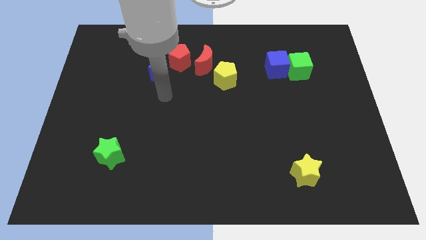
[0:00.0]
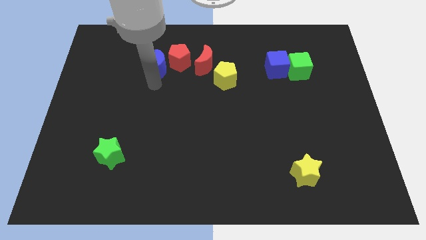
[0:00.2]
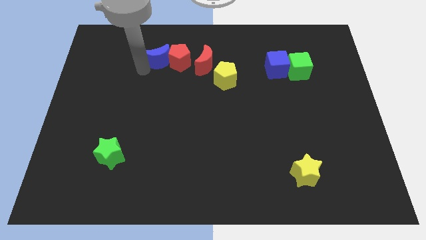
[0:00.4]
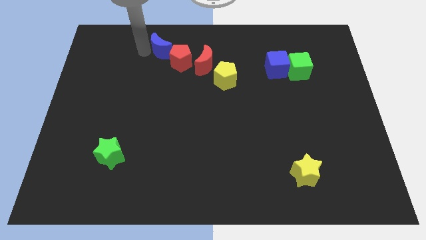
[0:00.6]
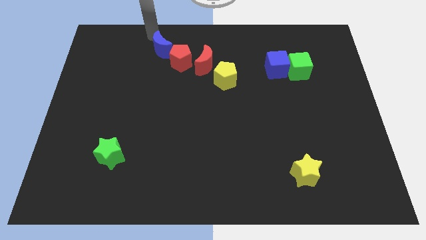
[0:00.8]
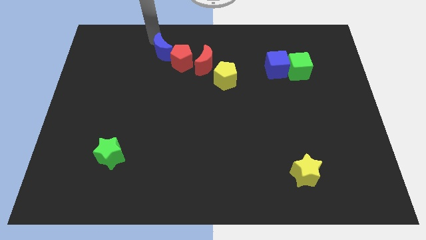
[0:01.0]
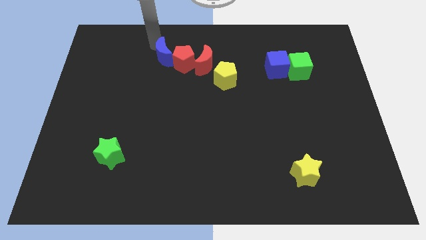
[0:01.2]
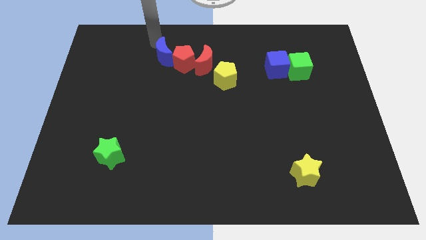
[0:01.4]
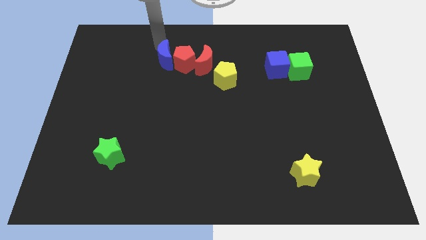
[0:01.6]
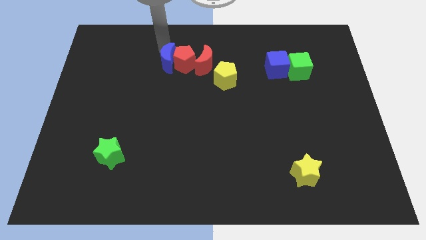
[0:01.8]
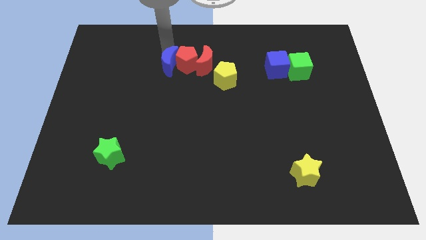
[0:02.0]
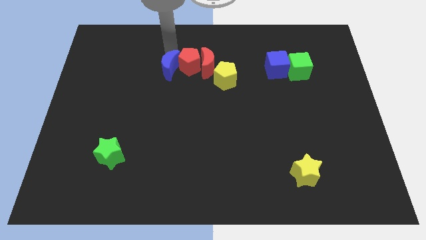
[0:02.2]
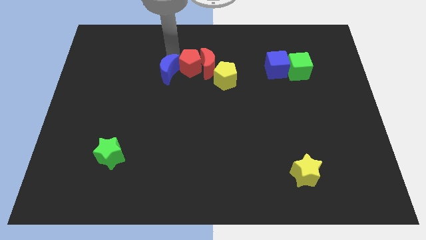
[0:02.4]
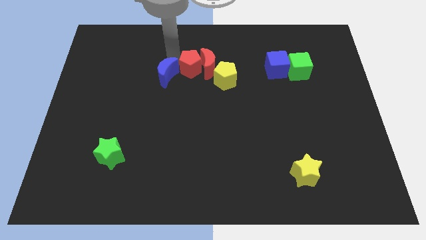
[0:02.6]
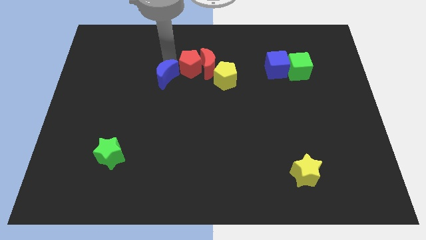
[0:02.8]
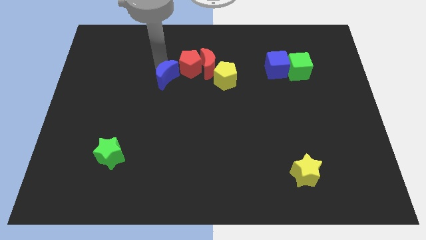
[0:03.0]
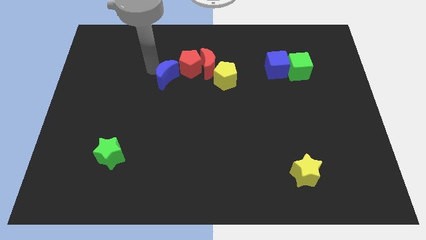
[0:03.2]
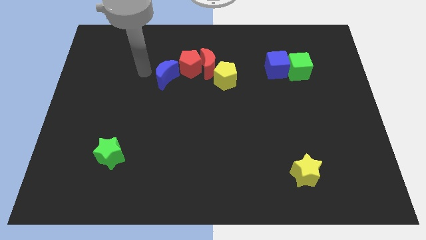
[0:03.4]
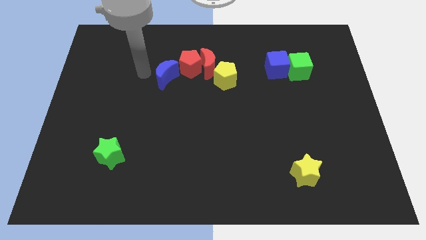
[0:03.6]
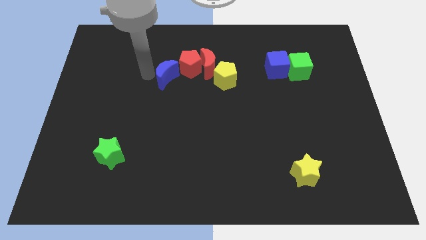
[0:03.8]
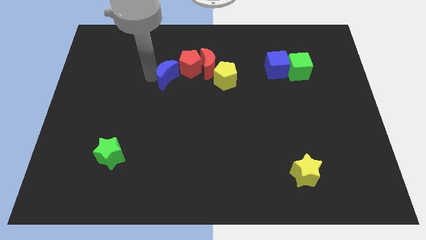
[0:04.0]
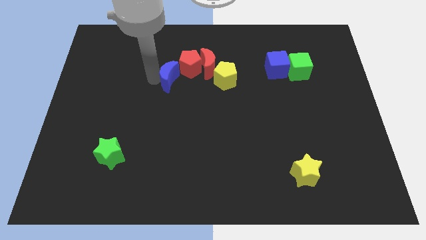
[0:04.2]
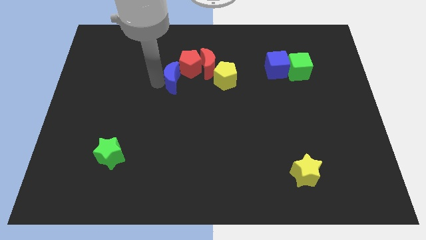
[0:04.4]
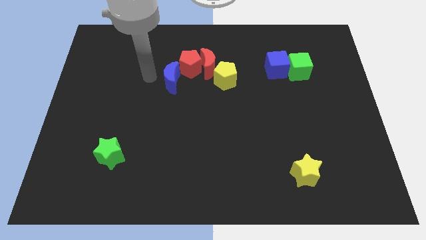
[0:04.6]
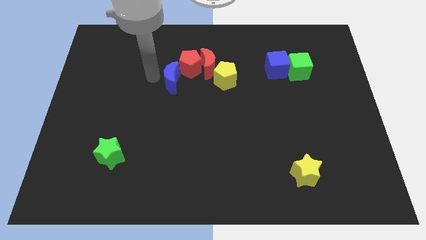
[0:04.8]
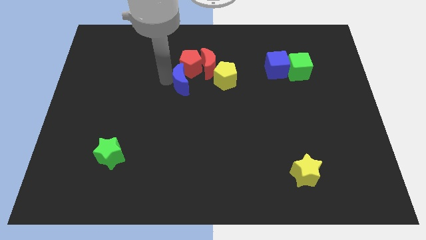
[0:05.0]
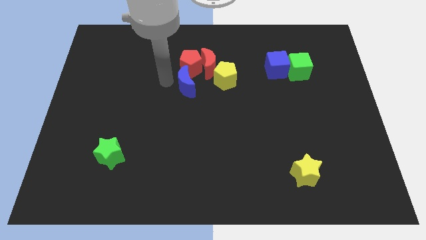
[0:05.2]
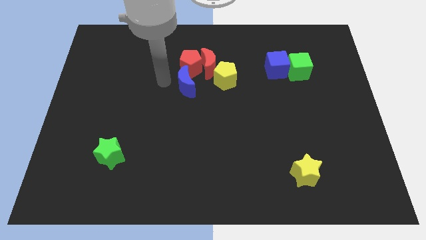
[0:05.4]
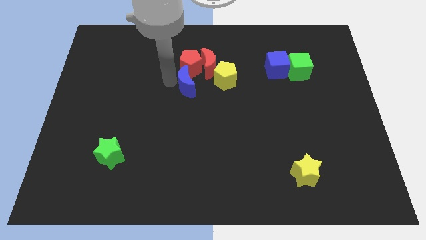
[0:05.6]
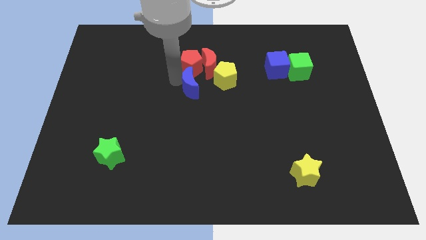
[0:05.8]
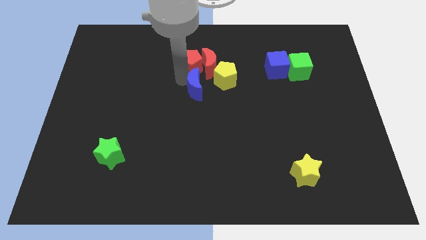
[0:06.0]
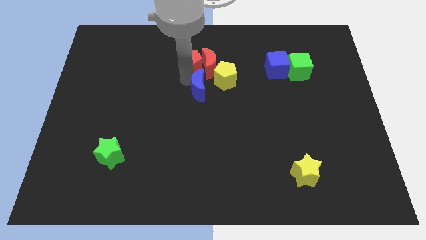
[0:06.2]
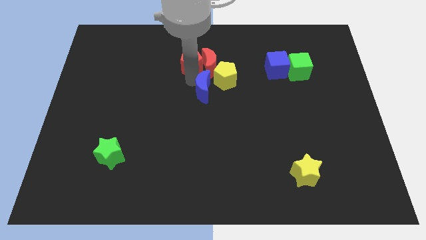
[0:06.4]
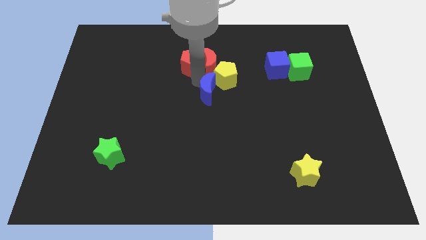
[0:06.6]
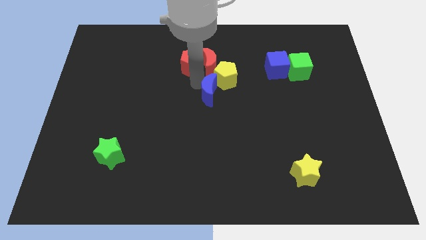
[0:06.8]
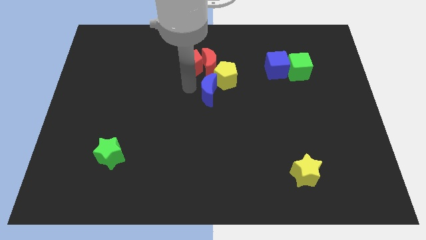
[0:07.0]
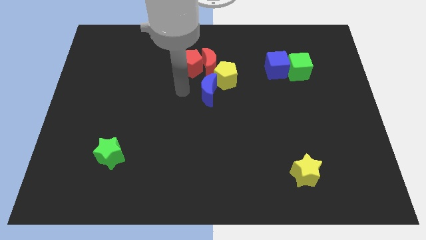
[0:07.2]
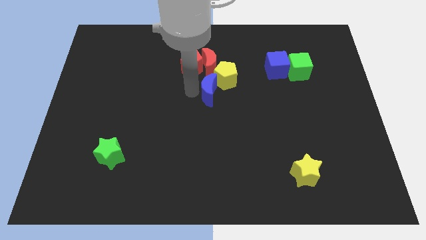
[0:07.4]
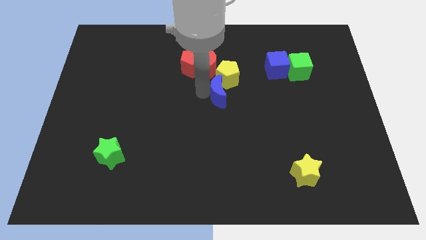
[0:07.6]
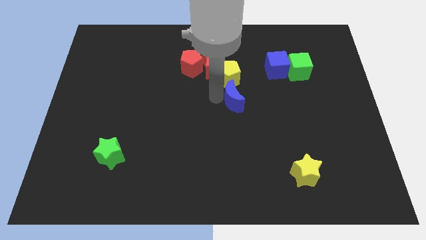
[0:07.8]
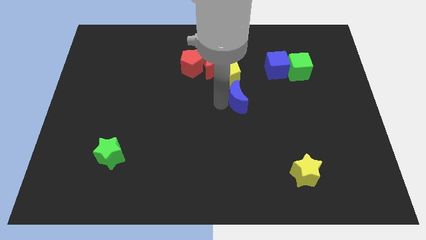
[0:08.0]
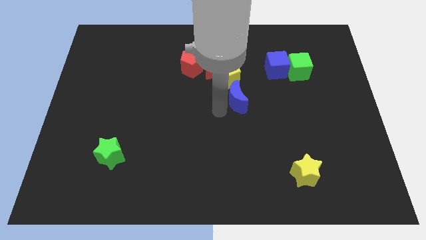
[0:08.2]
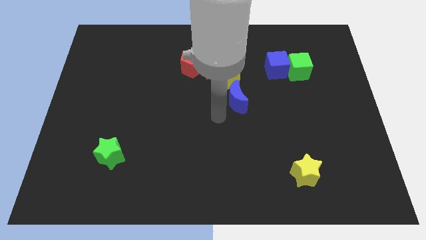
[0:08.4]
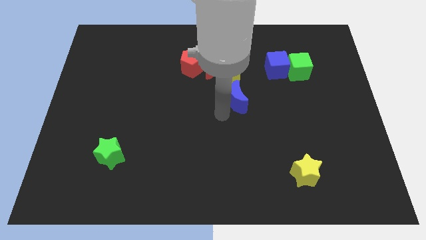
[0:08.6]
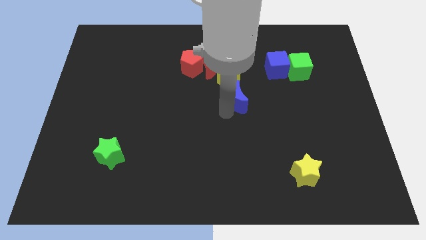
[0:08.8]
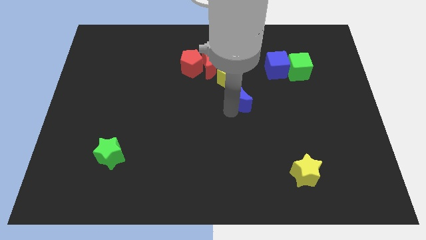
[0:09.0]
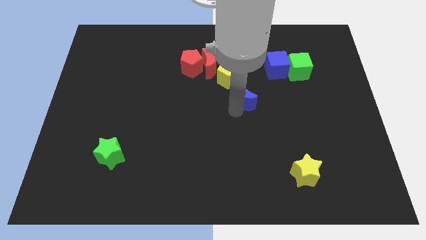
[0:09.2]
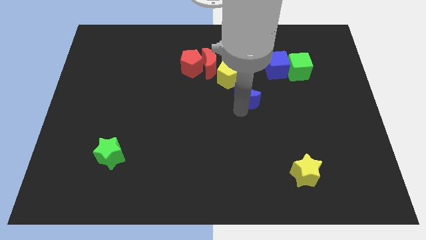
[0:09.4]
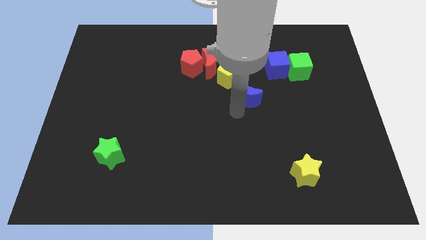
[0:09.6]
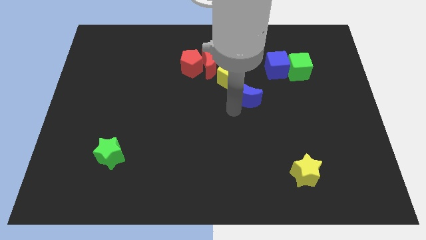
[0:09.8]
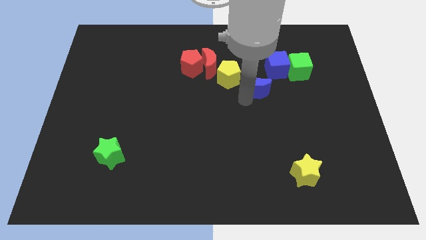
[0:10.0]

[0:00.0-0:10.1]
slide the blue moon just right of the yellow pentagon
